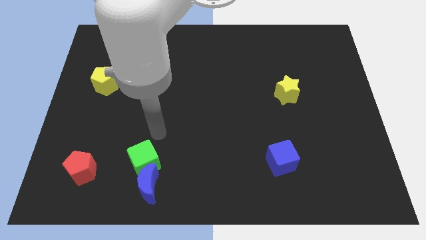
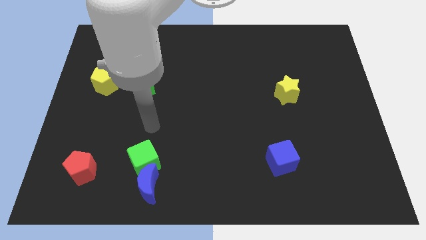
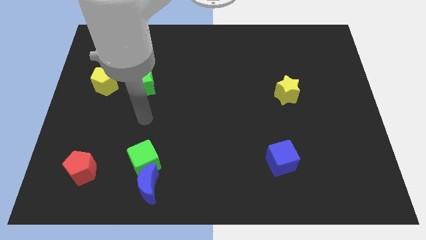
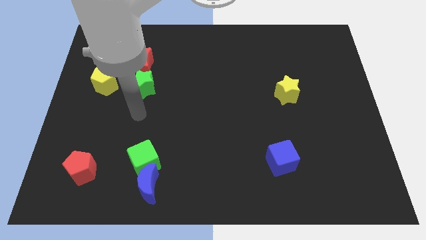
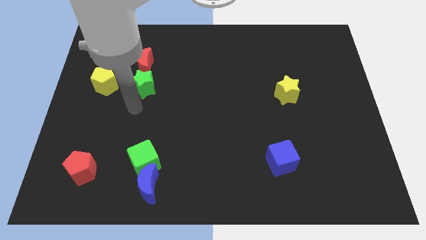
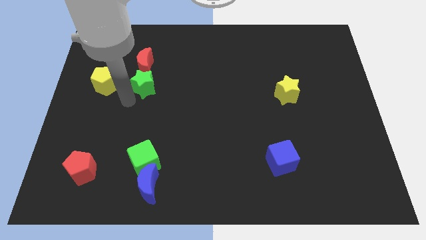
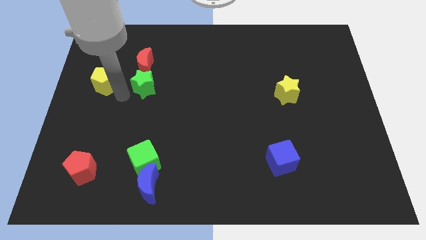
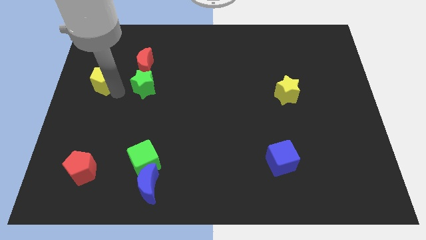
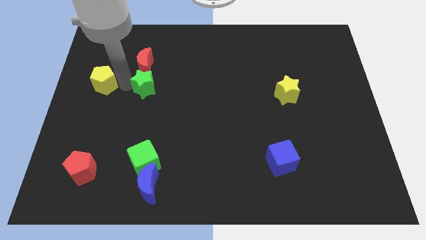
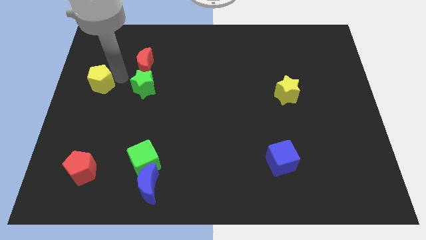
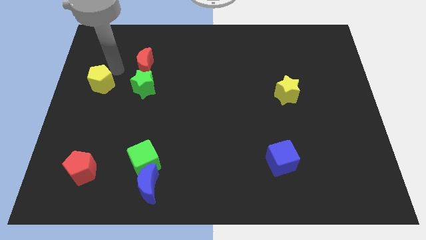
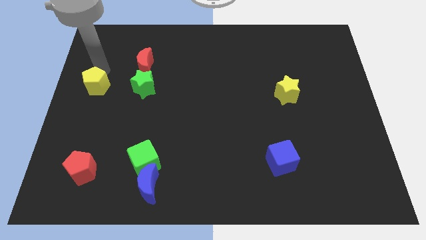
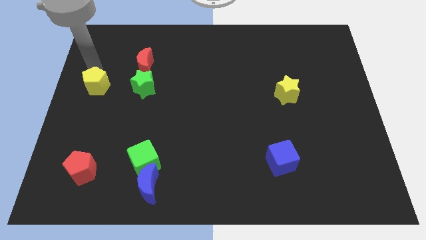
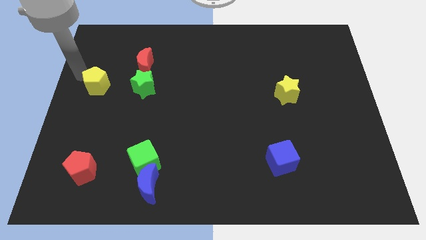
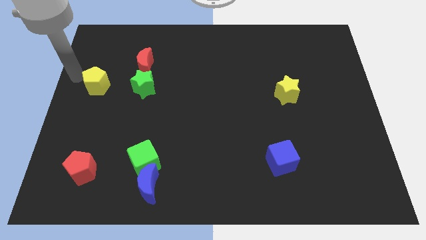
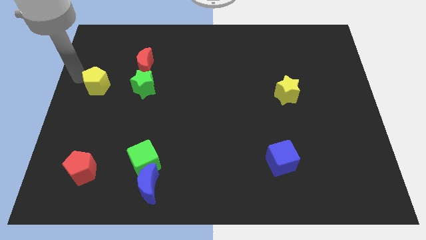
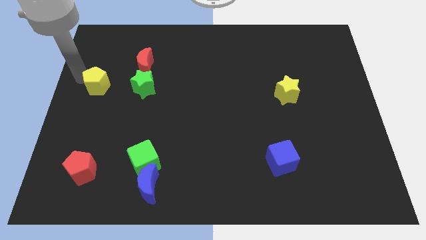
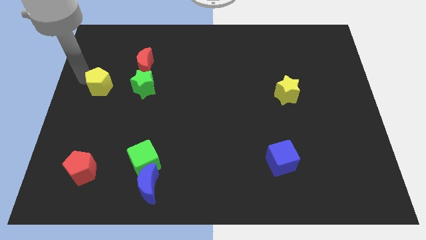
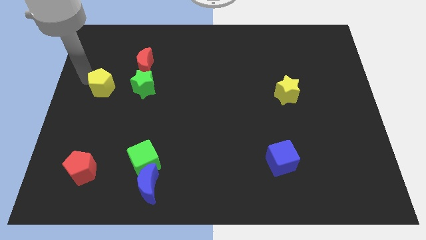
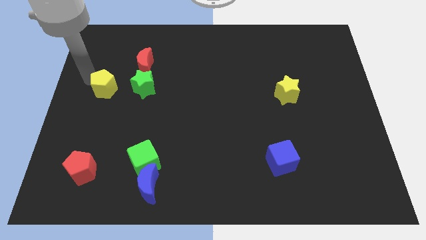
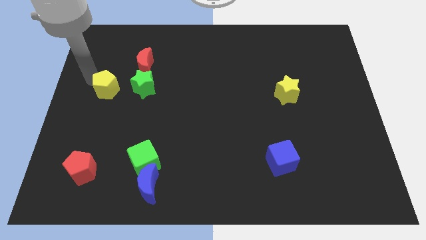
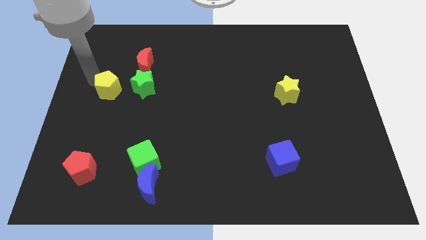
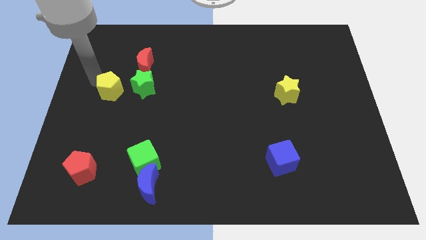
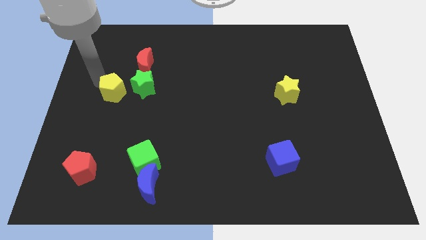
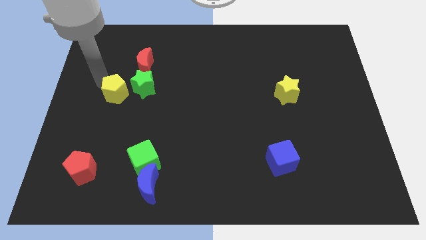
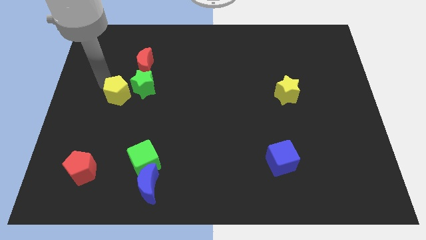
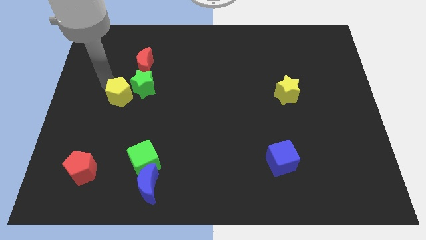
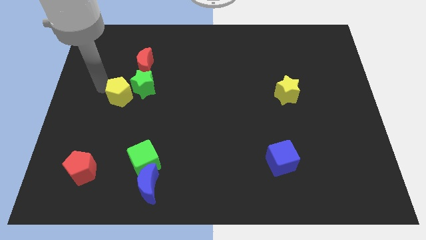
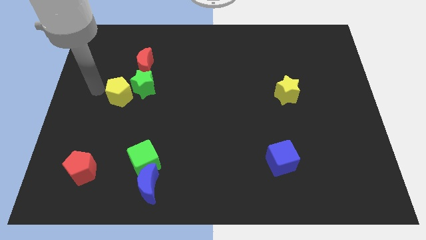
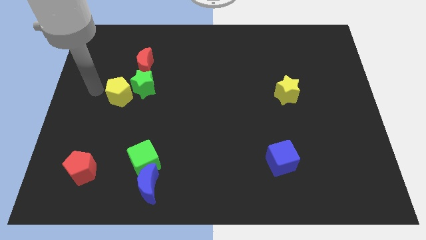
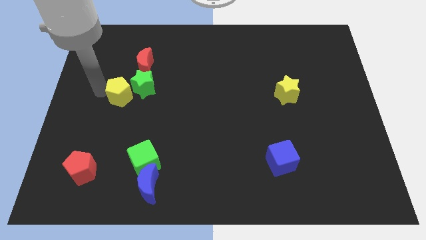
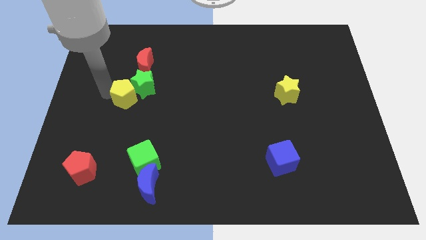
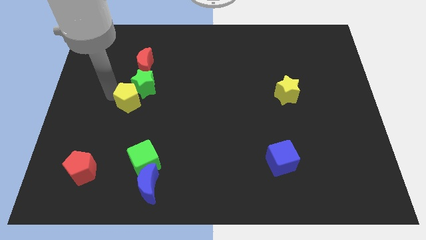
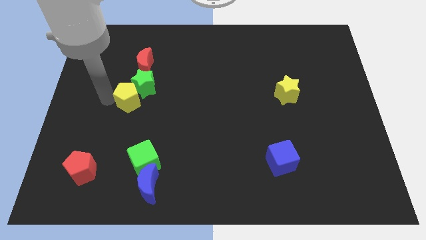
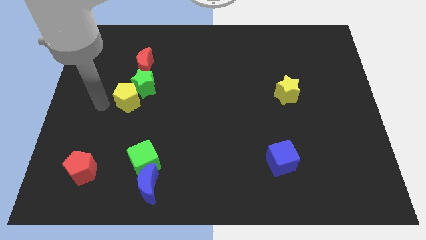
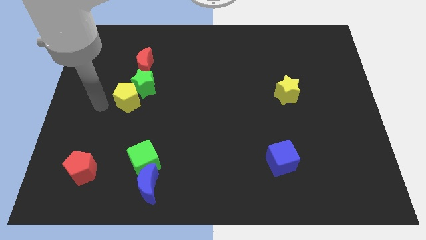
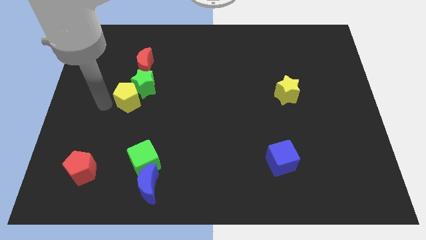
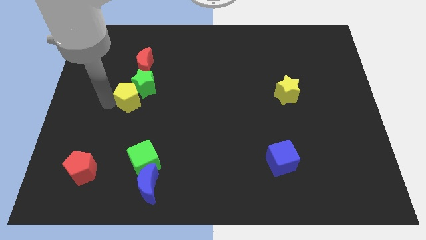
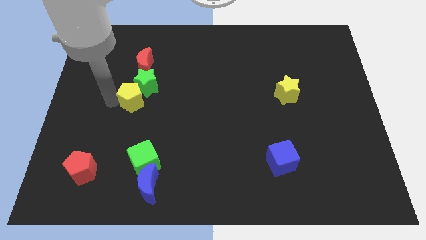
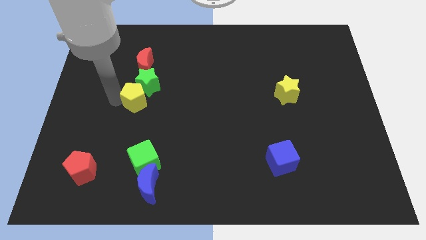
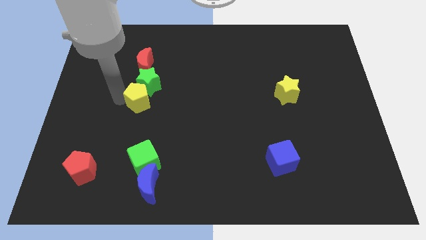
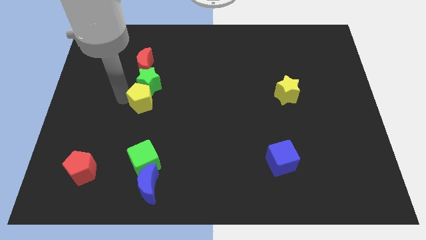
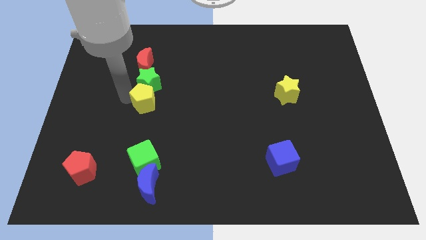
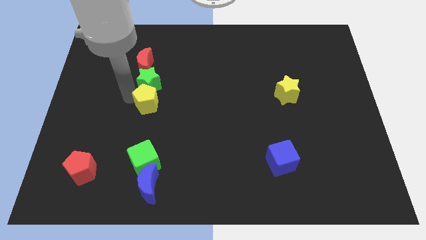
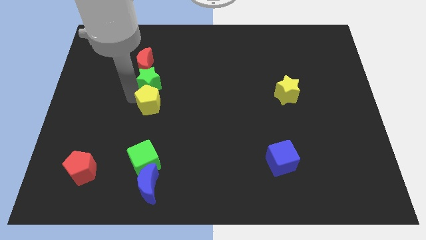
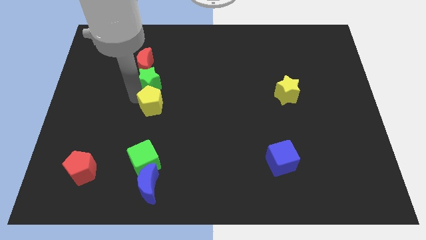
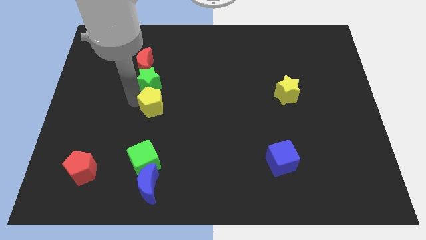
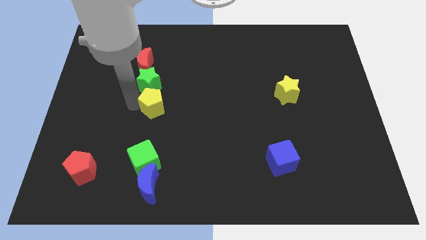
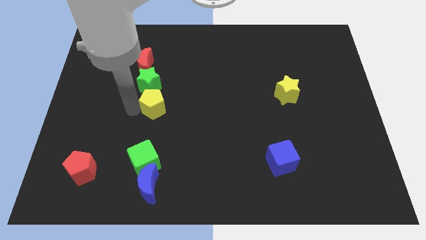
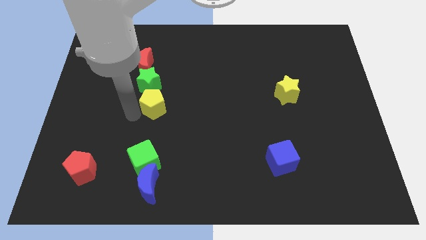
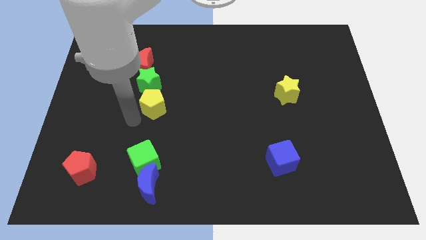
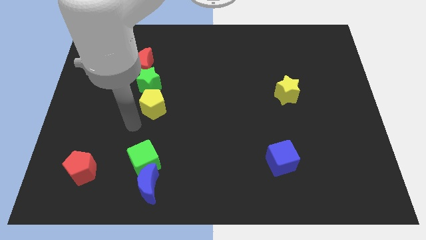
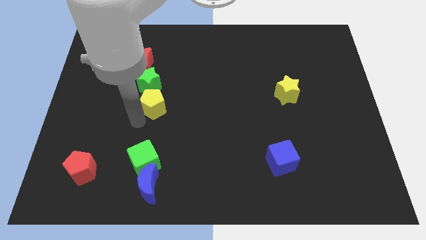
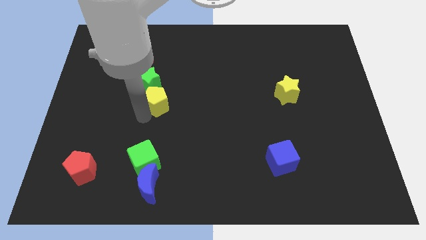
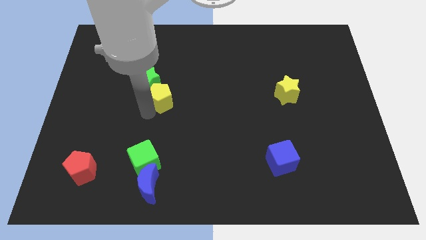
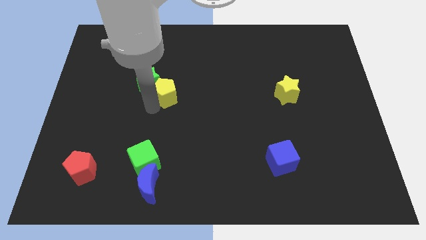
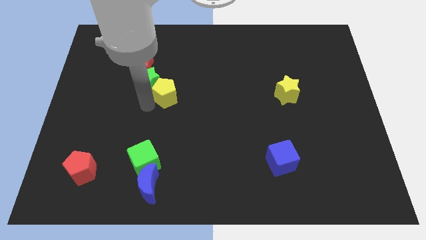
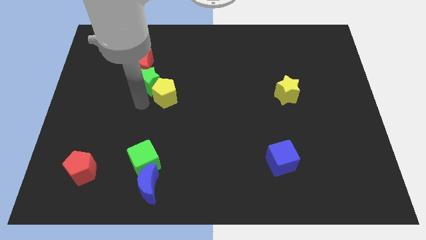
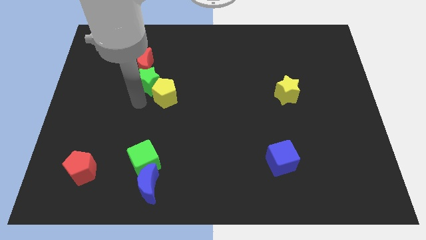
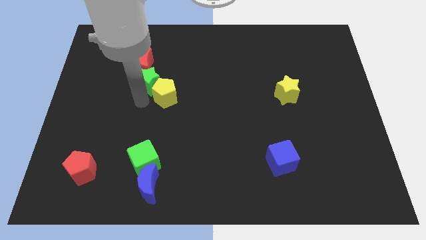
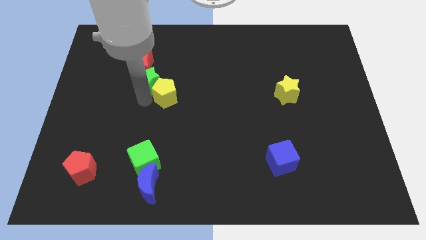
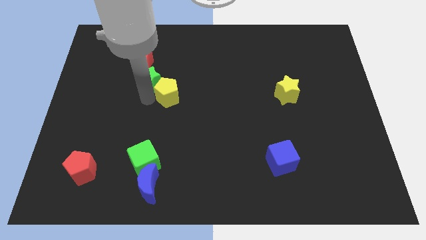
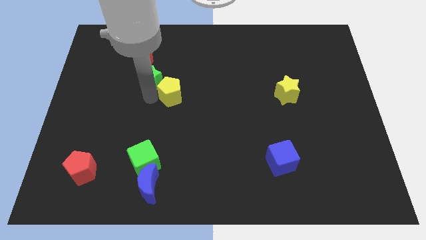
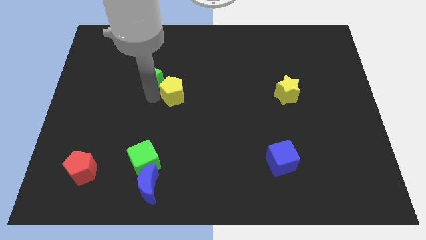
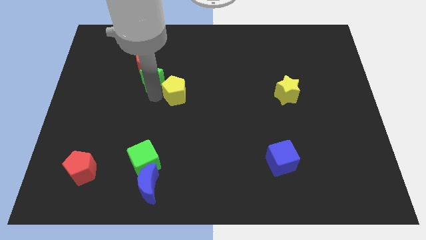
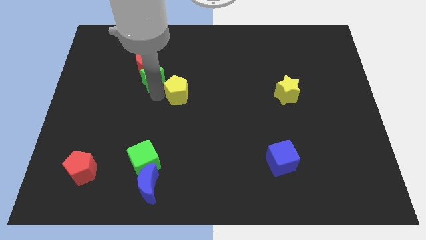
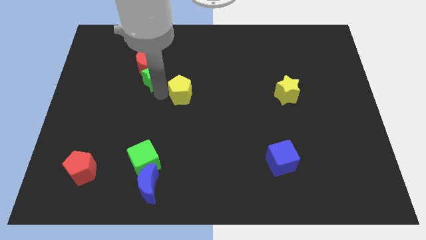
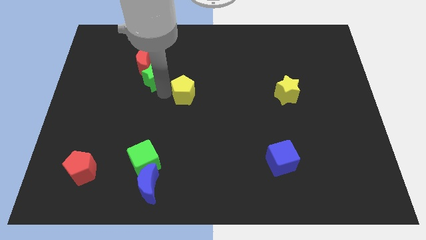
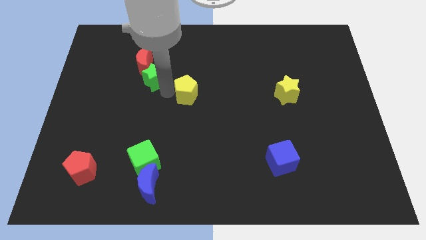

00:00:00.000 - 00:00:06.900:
slide the yellow pentagon right

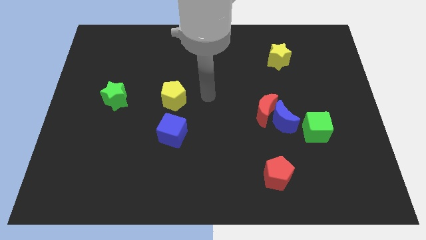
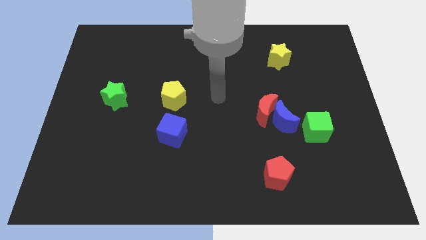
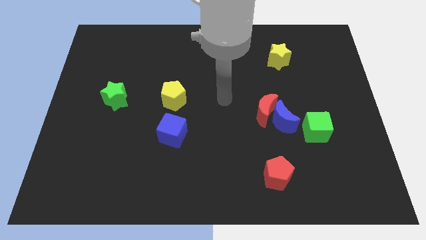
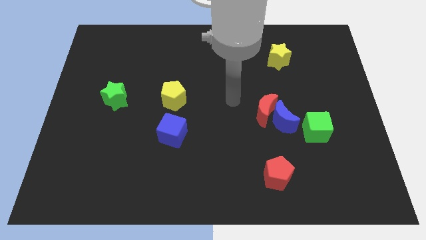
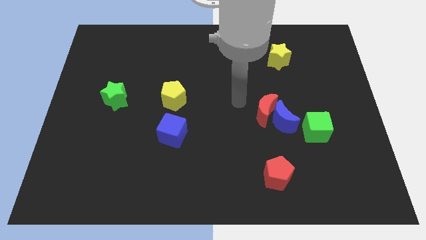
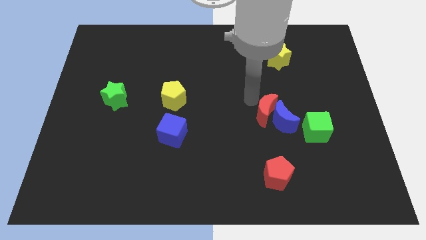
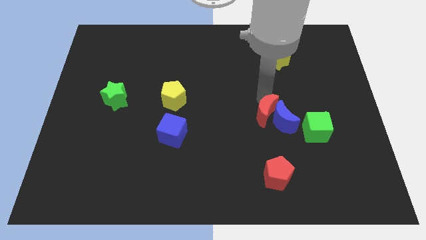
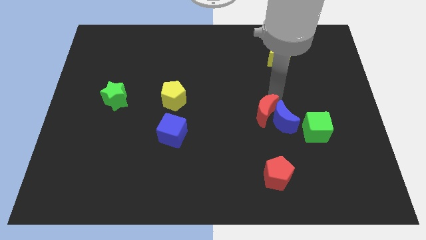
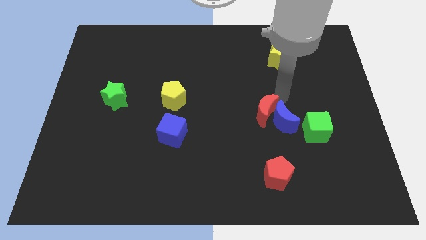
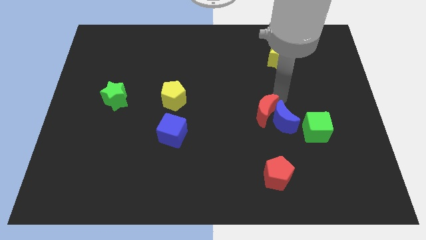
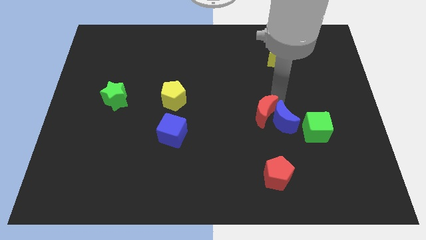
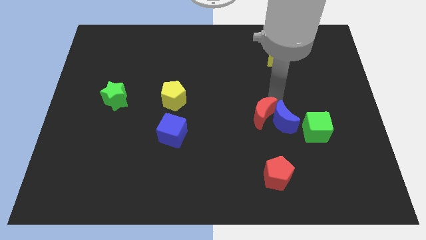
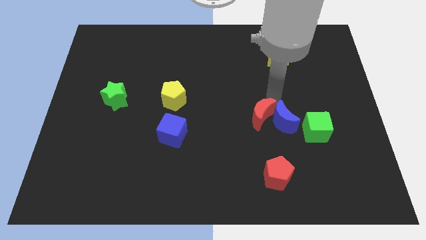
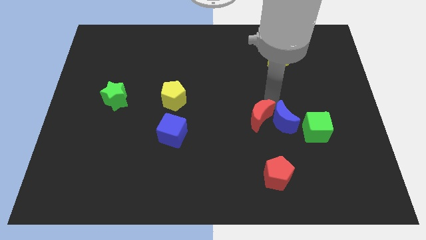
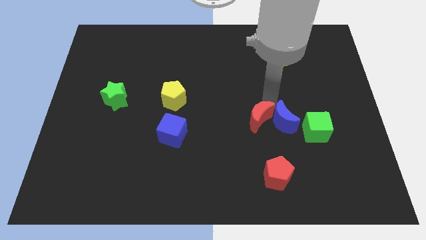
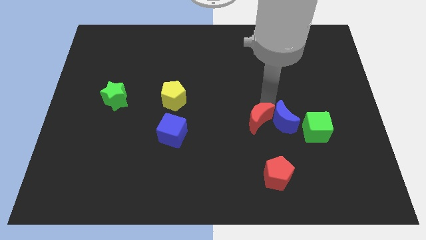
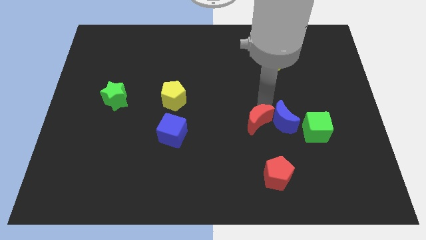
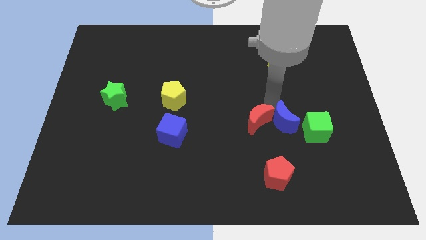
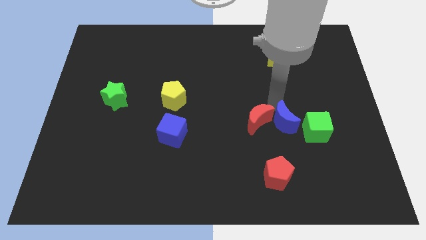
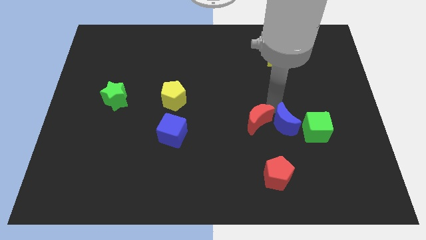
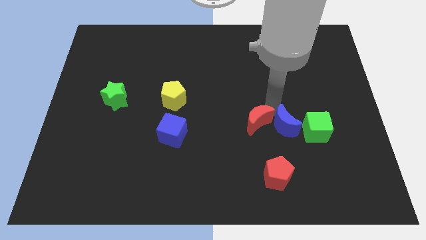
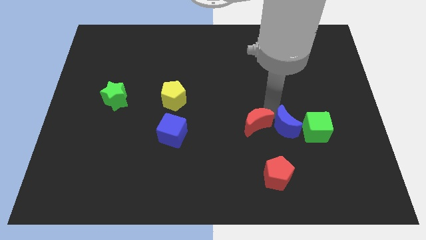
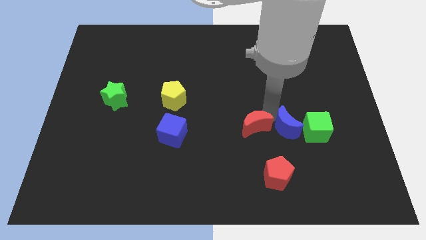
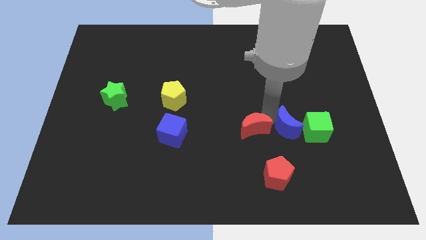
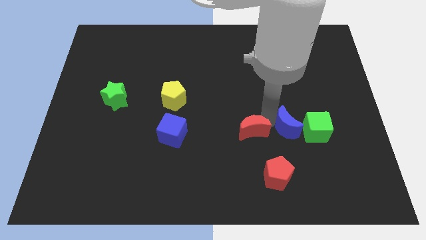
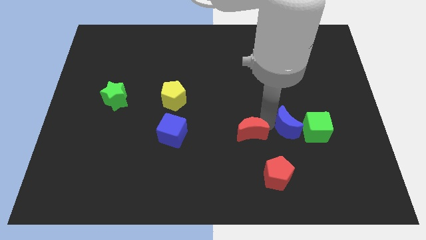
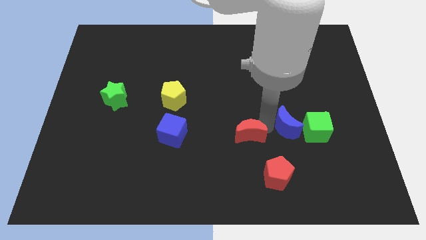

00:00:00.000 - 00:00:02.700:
slightly push the red moon diagonally downwards and to the left
